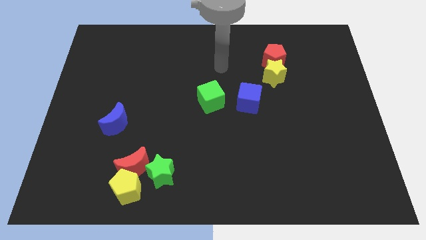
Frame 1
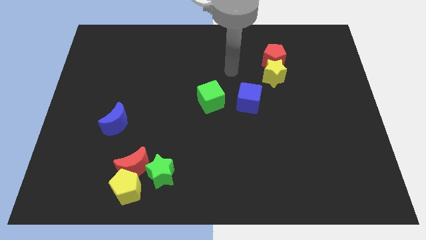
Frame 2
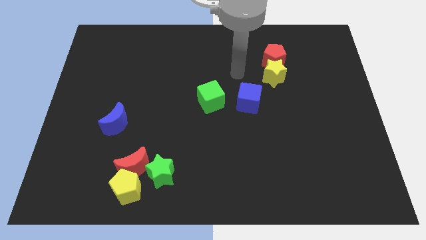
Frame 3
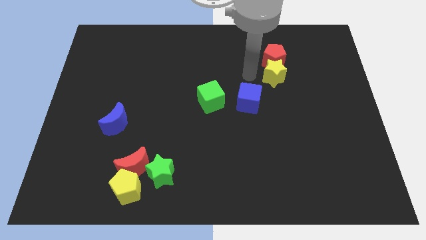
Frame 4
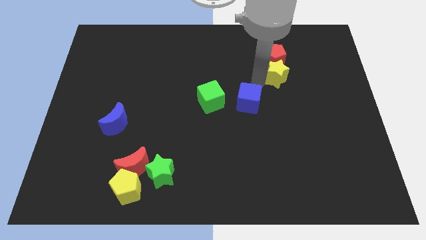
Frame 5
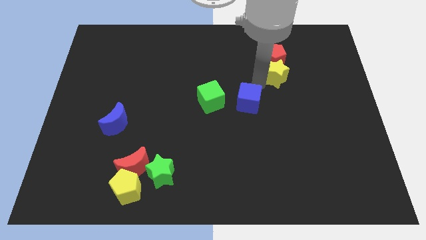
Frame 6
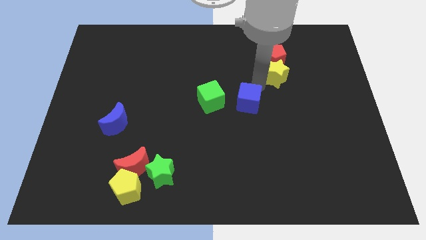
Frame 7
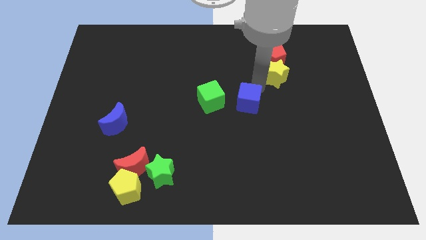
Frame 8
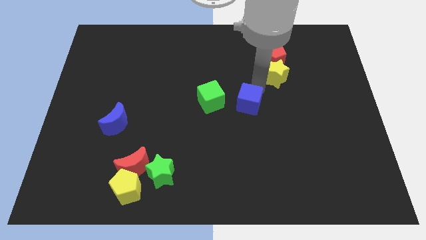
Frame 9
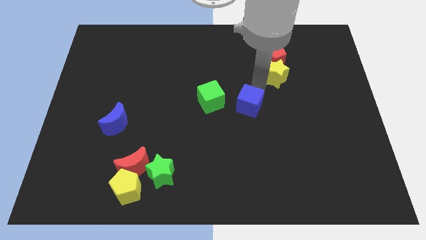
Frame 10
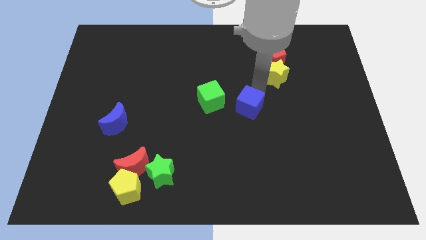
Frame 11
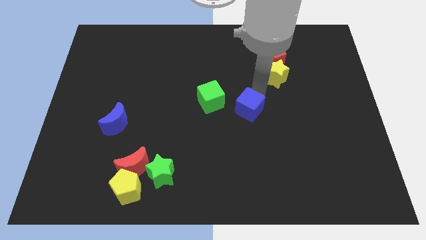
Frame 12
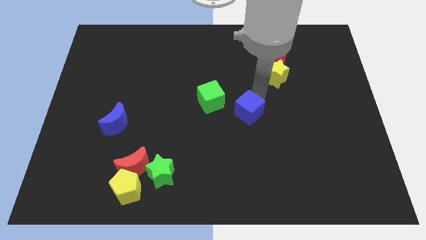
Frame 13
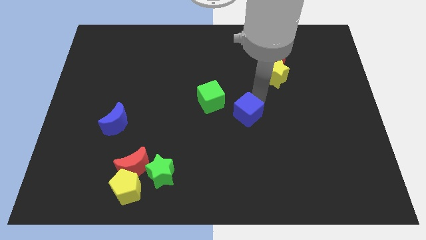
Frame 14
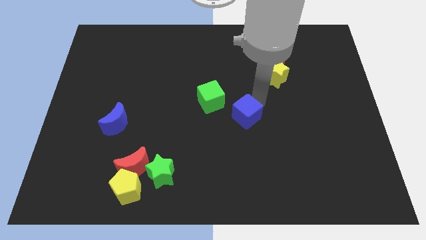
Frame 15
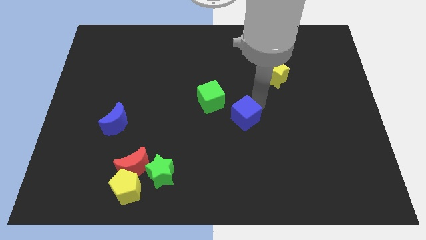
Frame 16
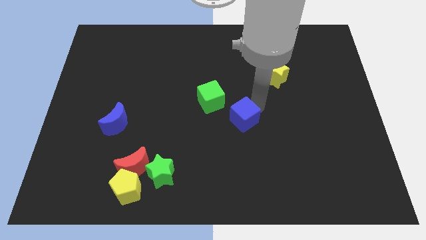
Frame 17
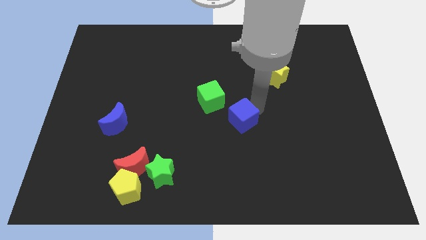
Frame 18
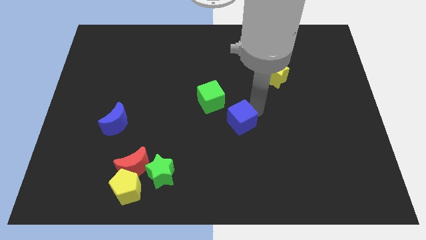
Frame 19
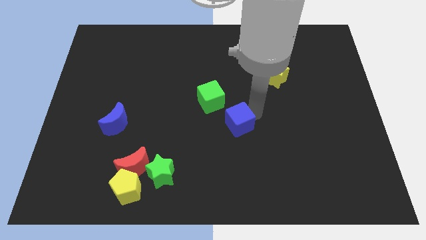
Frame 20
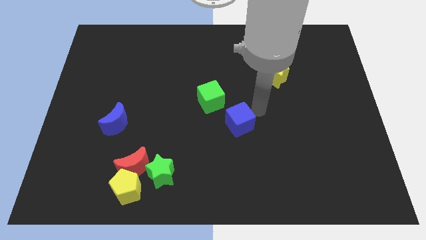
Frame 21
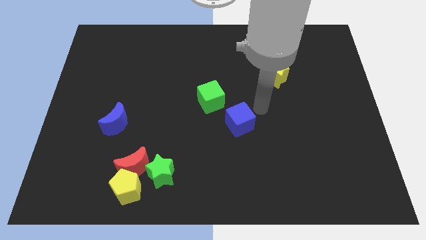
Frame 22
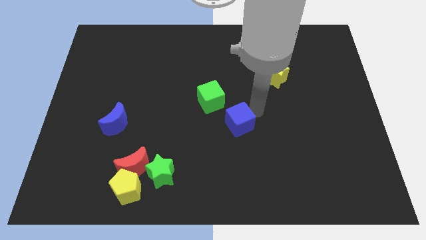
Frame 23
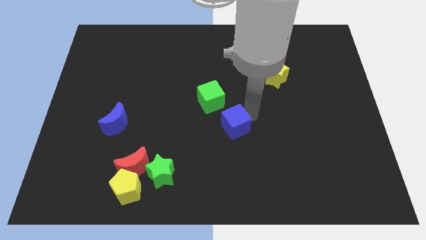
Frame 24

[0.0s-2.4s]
slide the blue cube diagonally down and left a little bit

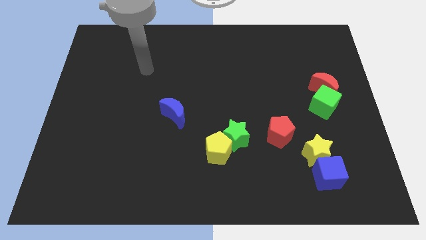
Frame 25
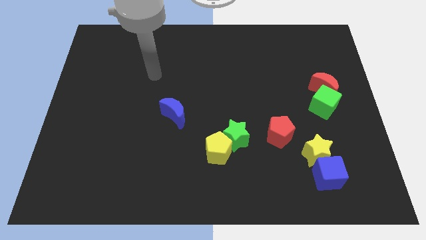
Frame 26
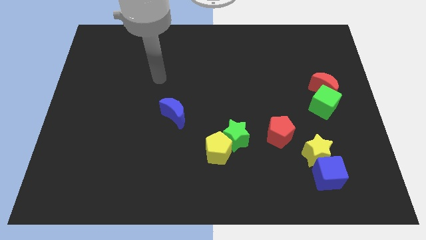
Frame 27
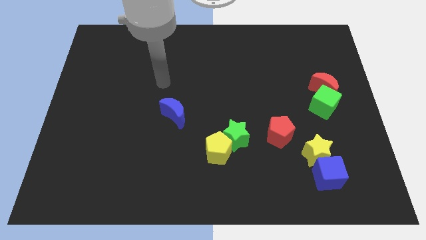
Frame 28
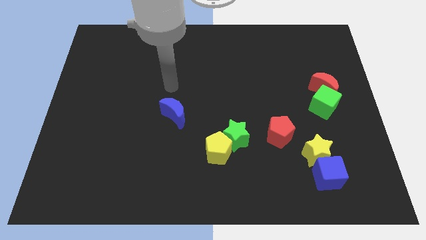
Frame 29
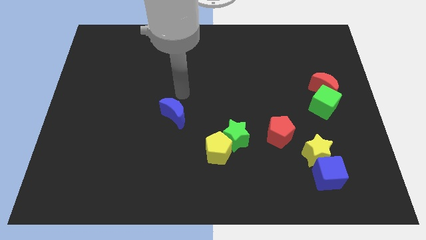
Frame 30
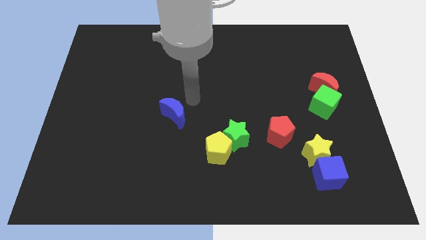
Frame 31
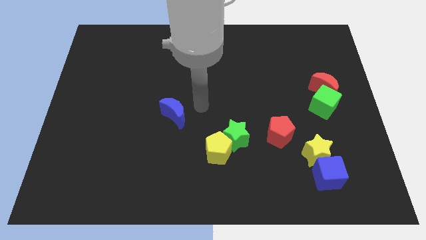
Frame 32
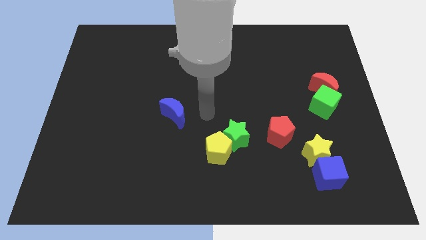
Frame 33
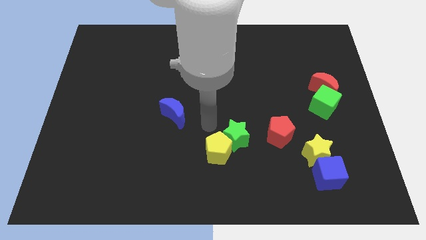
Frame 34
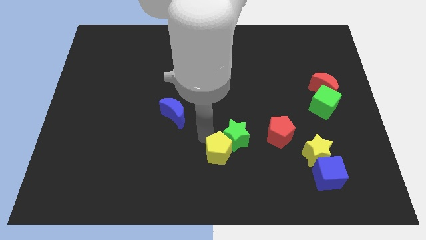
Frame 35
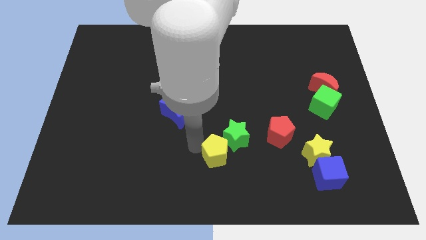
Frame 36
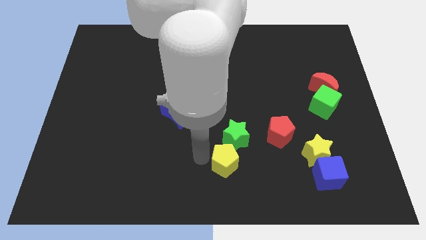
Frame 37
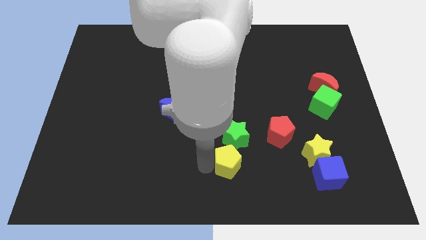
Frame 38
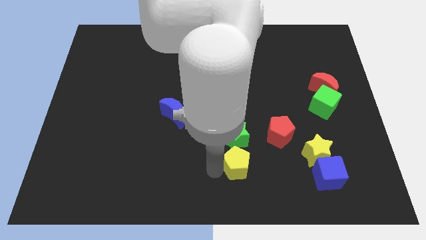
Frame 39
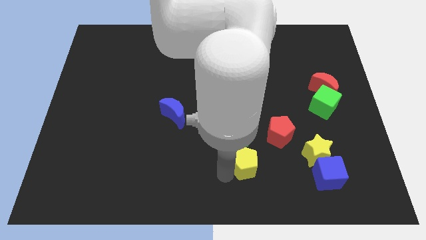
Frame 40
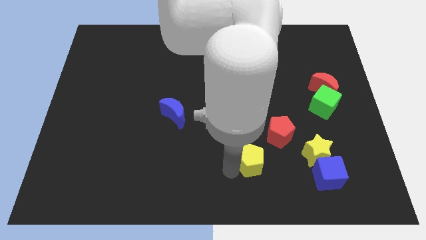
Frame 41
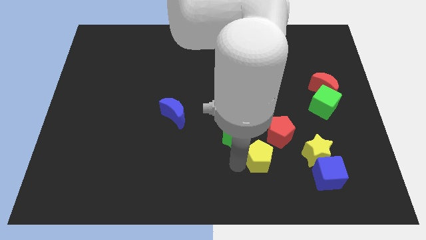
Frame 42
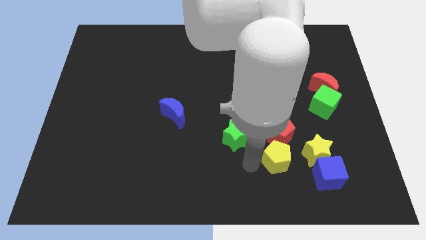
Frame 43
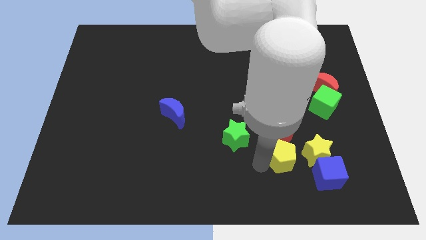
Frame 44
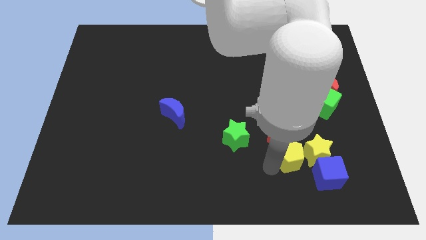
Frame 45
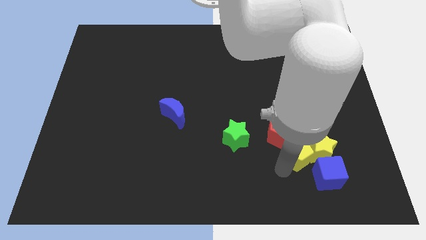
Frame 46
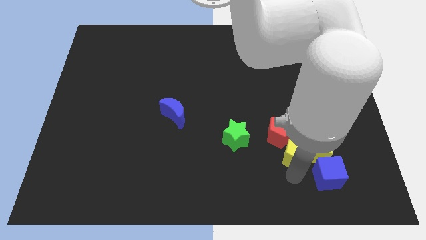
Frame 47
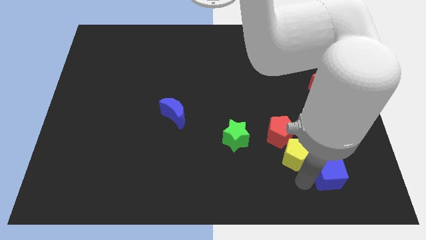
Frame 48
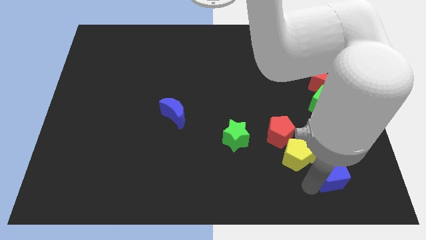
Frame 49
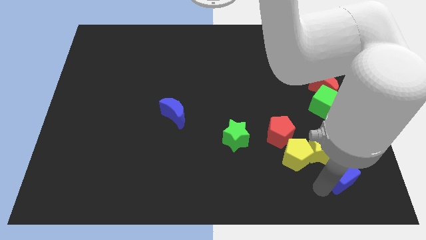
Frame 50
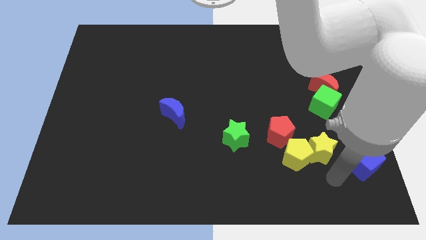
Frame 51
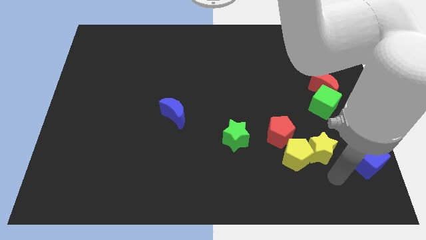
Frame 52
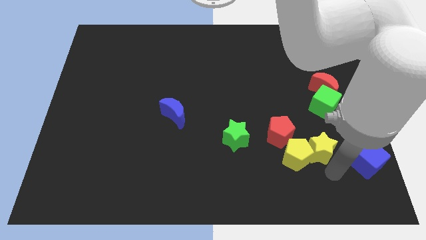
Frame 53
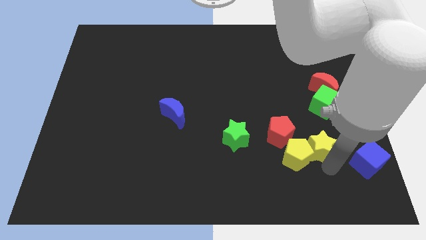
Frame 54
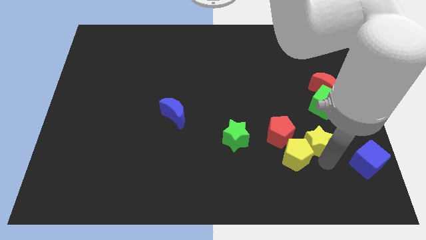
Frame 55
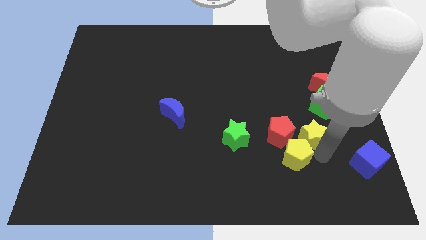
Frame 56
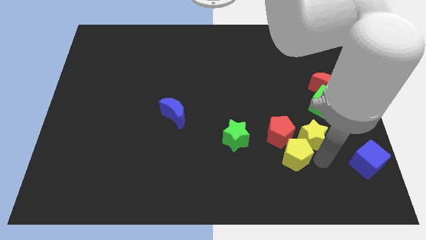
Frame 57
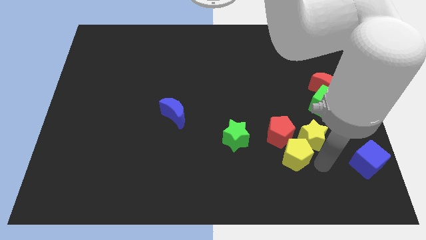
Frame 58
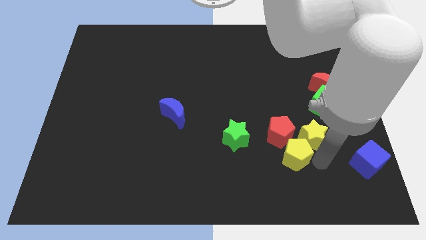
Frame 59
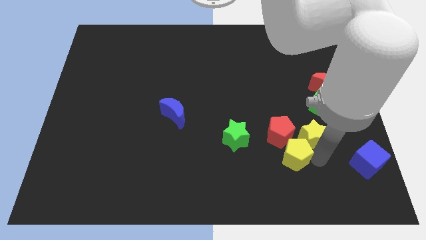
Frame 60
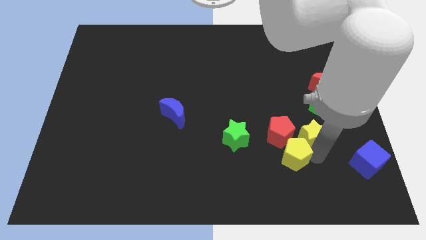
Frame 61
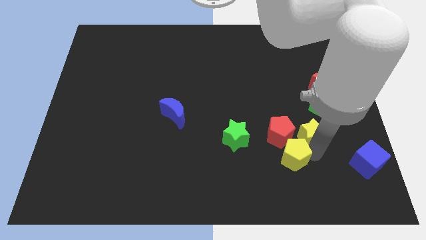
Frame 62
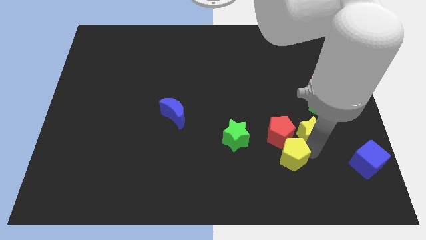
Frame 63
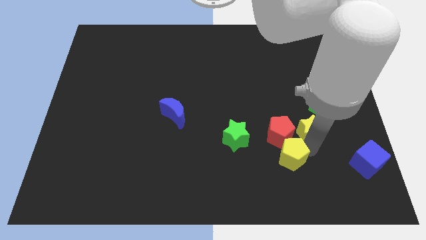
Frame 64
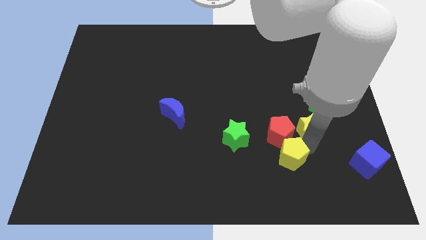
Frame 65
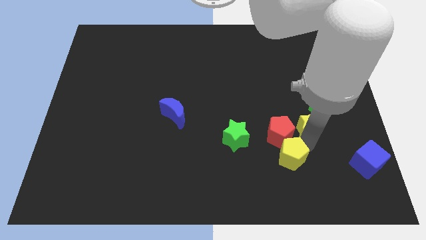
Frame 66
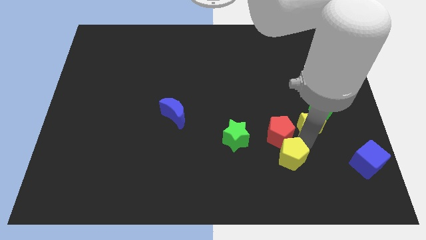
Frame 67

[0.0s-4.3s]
slide the yellow star a little up

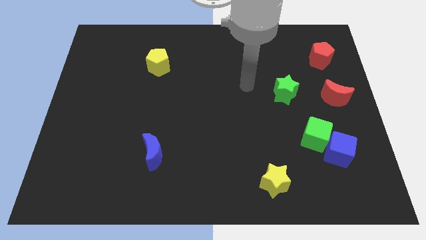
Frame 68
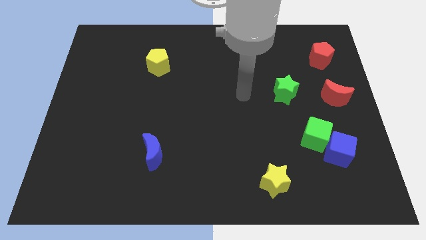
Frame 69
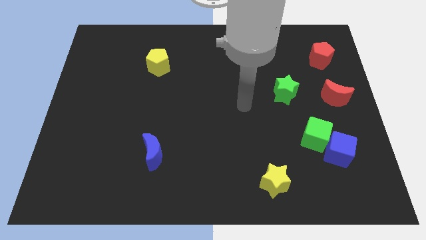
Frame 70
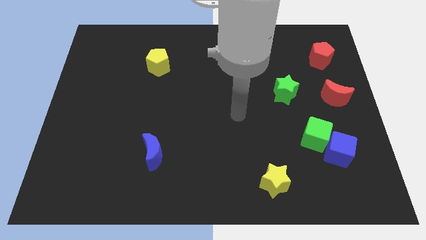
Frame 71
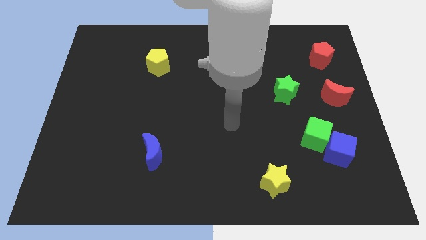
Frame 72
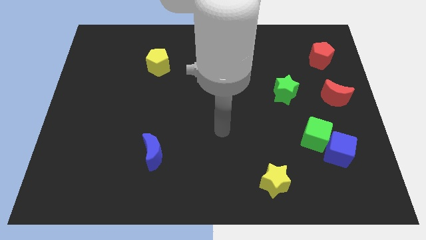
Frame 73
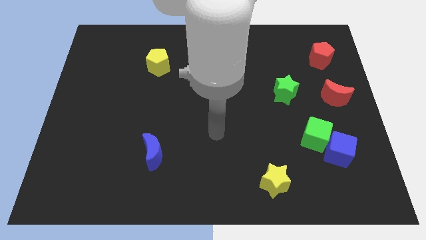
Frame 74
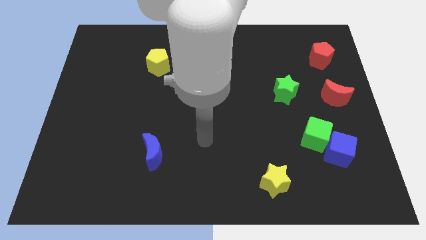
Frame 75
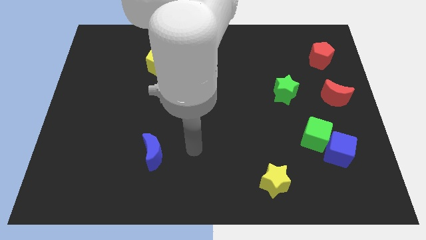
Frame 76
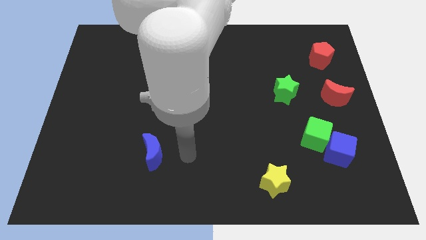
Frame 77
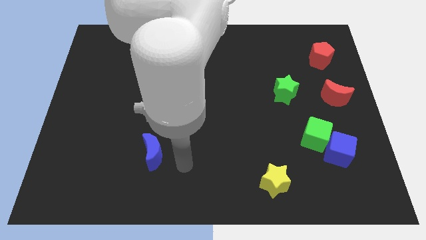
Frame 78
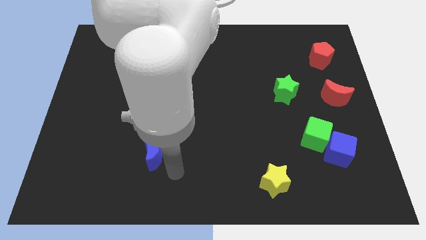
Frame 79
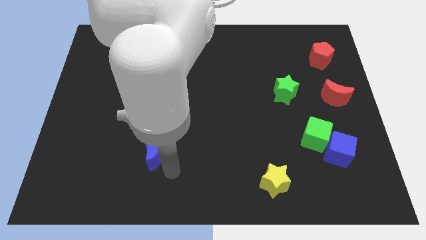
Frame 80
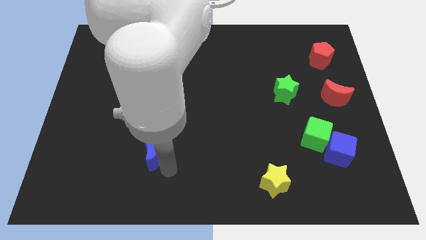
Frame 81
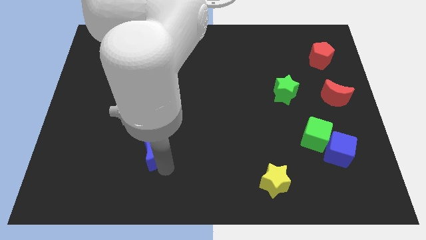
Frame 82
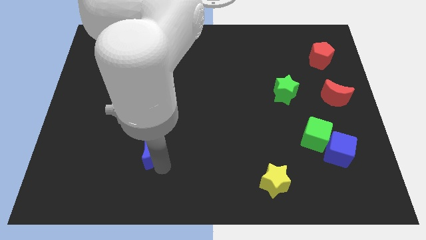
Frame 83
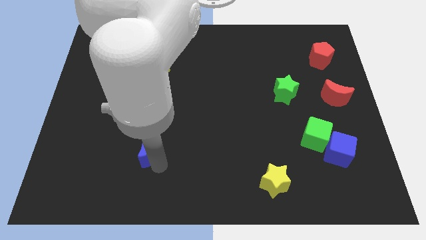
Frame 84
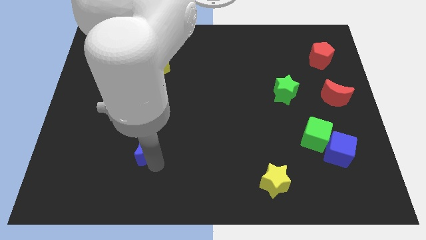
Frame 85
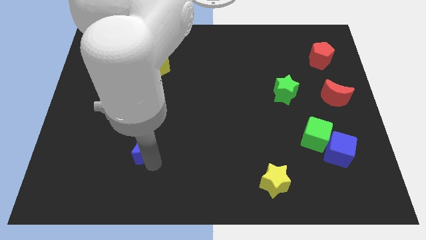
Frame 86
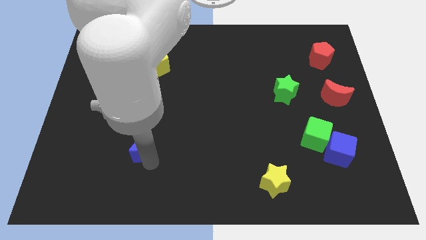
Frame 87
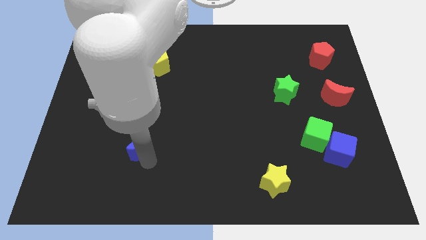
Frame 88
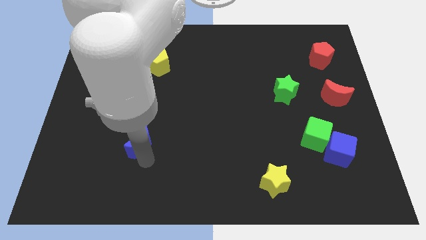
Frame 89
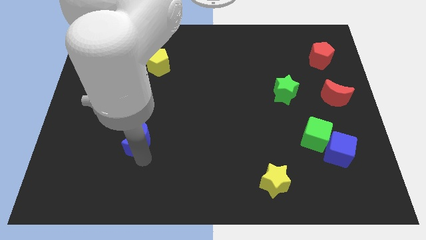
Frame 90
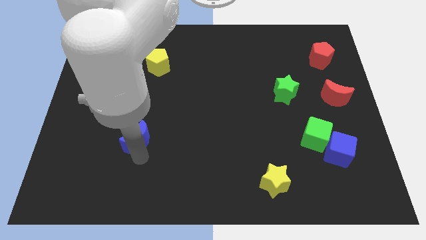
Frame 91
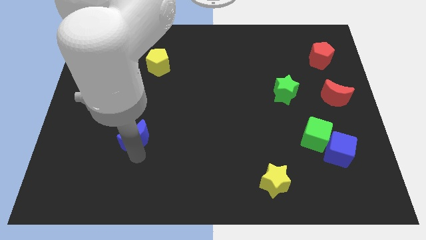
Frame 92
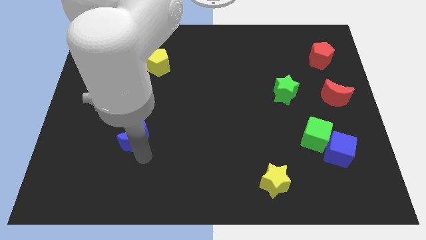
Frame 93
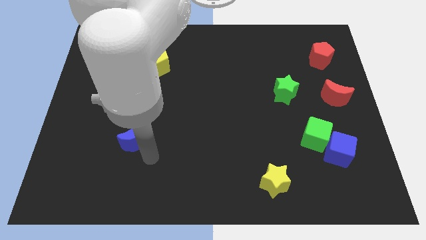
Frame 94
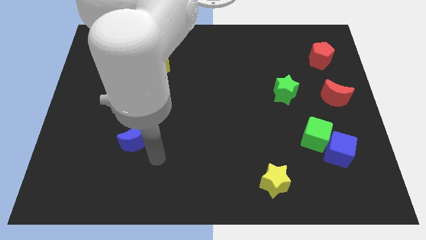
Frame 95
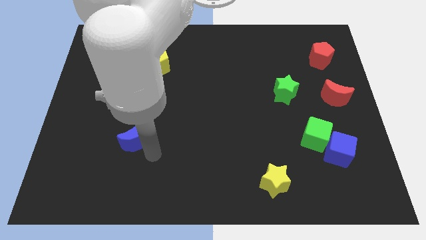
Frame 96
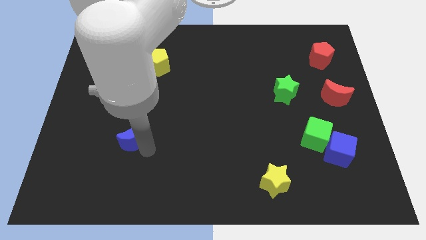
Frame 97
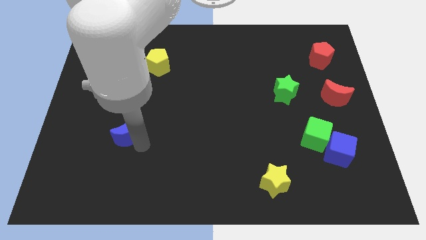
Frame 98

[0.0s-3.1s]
slide the blue moon a bit up and then left
